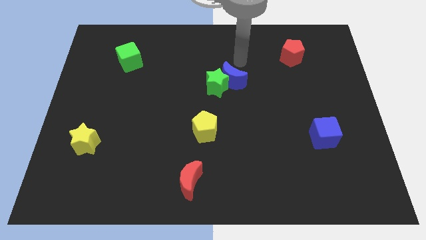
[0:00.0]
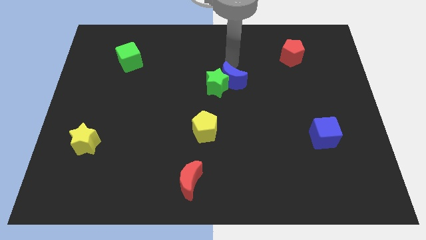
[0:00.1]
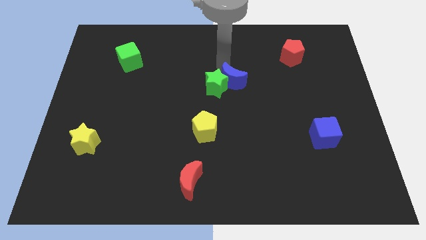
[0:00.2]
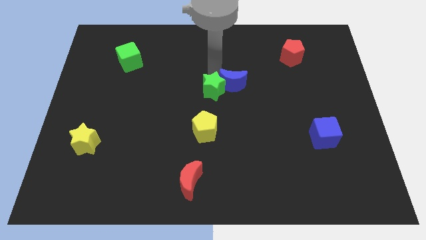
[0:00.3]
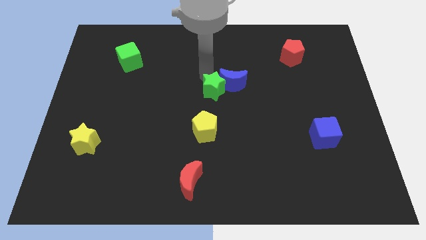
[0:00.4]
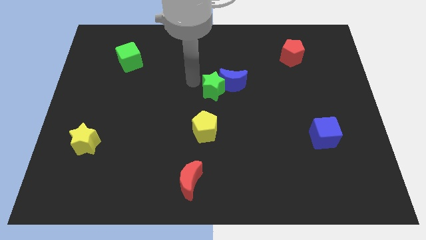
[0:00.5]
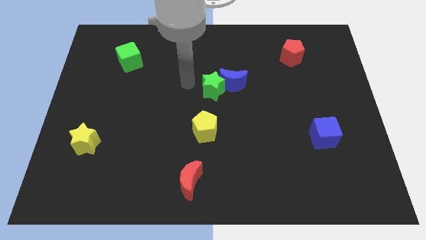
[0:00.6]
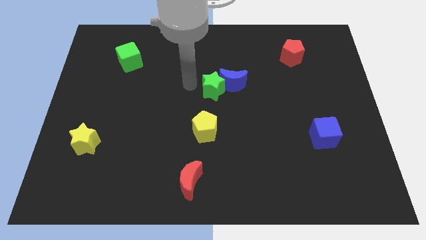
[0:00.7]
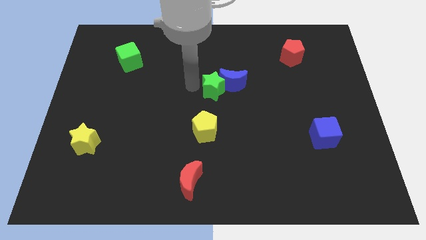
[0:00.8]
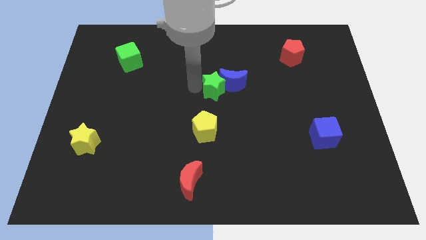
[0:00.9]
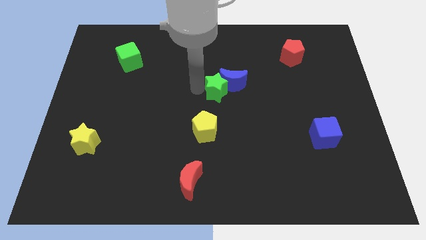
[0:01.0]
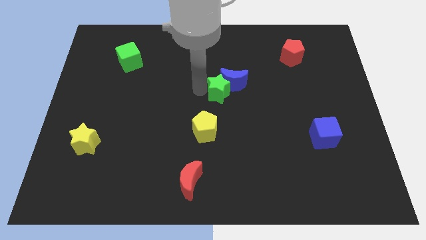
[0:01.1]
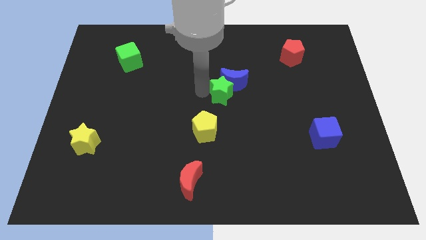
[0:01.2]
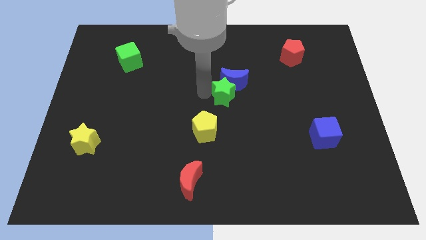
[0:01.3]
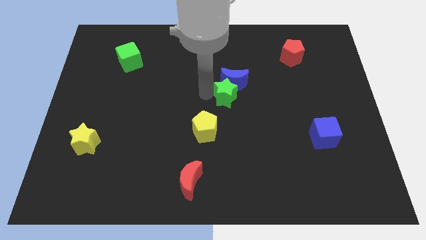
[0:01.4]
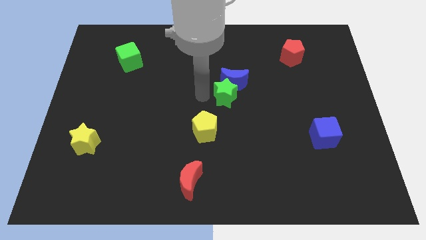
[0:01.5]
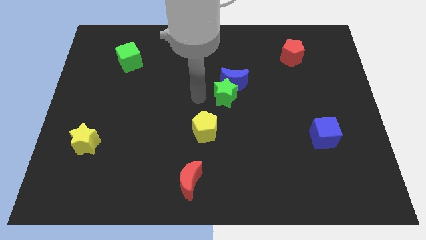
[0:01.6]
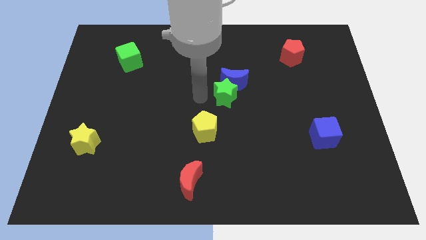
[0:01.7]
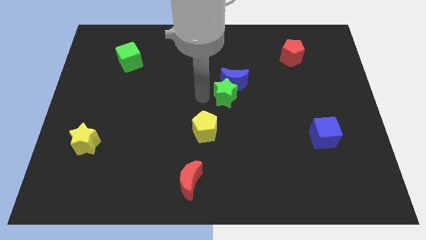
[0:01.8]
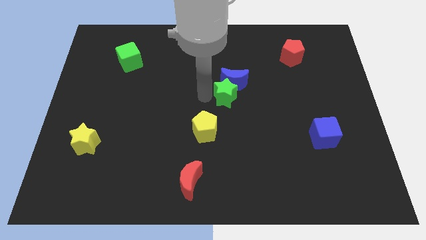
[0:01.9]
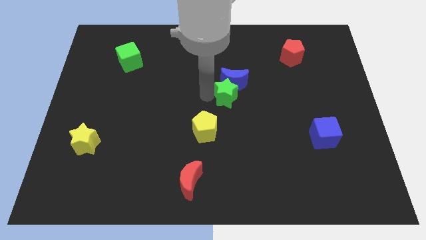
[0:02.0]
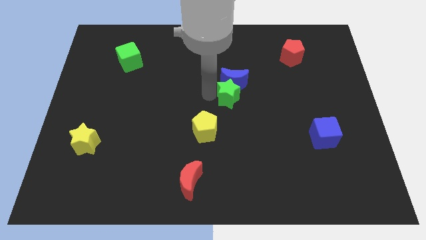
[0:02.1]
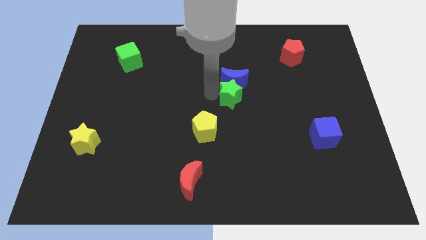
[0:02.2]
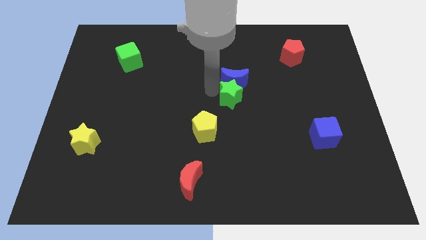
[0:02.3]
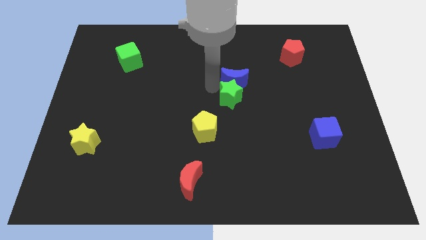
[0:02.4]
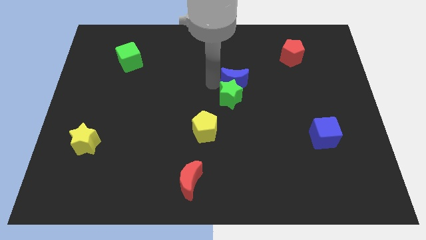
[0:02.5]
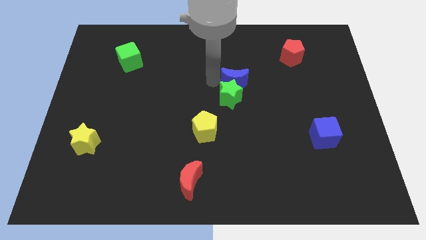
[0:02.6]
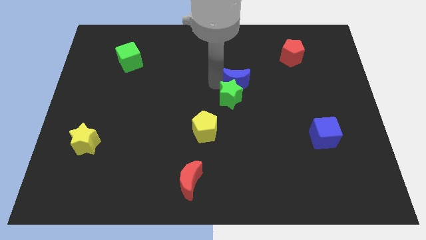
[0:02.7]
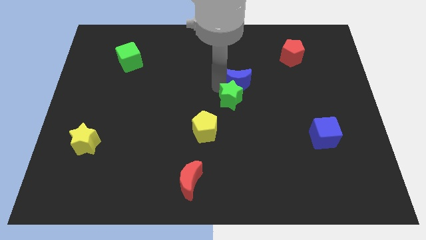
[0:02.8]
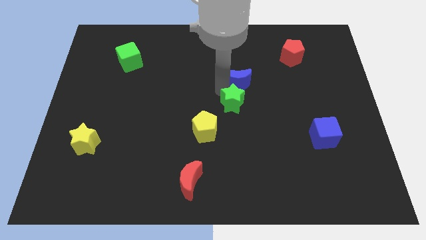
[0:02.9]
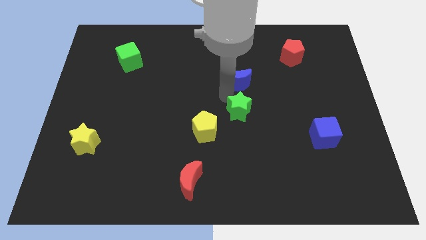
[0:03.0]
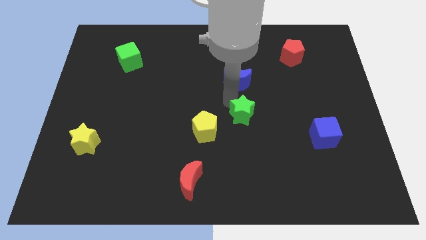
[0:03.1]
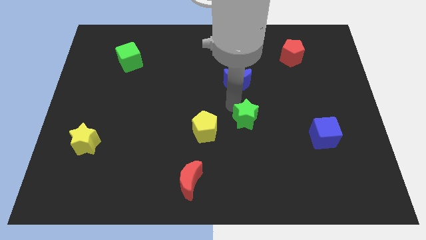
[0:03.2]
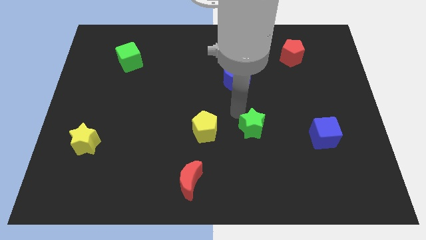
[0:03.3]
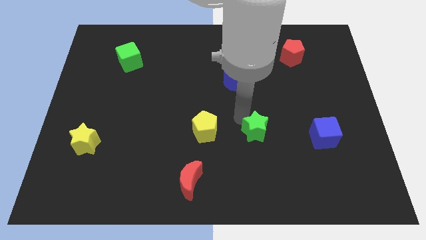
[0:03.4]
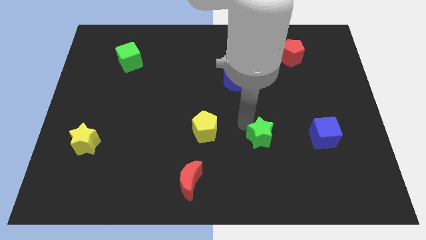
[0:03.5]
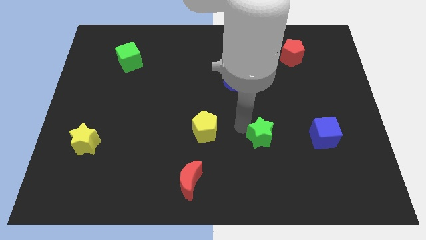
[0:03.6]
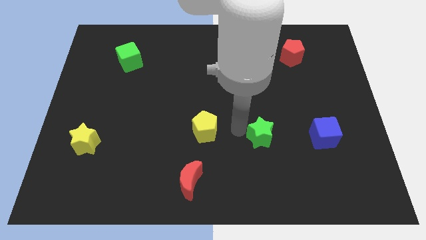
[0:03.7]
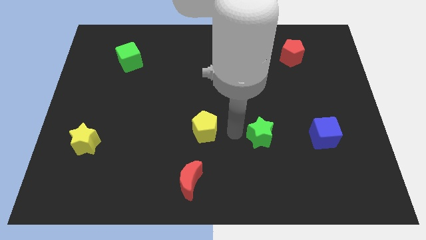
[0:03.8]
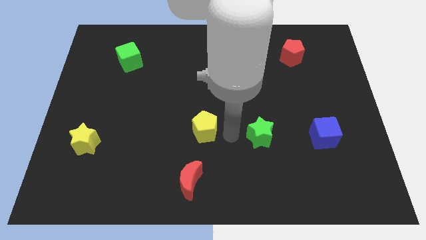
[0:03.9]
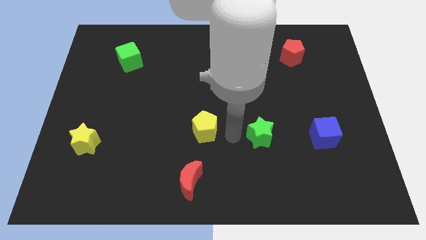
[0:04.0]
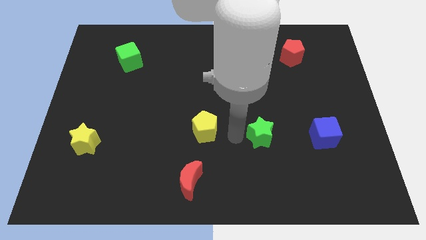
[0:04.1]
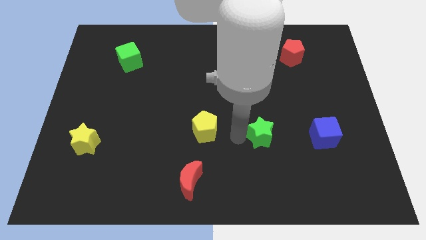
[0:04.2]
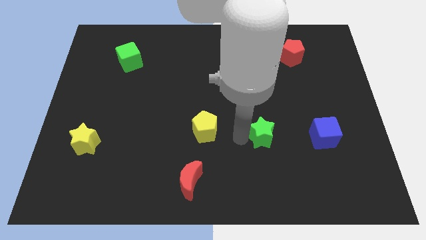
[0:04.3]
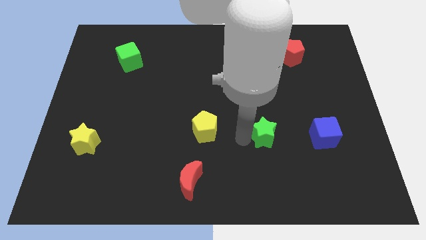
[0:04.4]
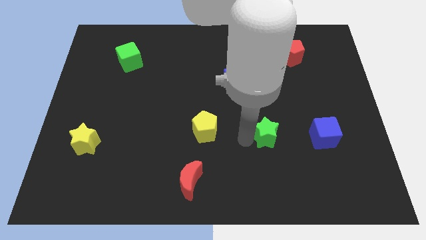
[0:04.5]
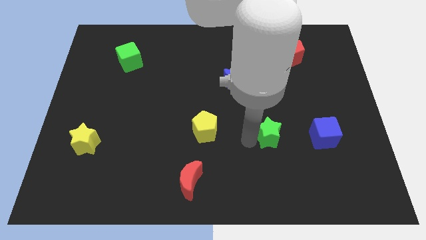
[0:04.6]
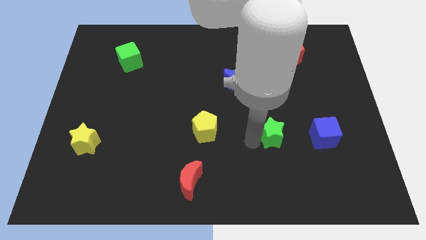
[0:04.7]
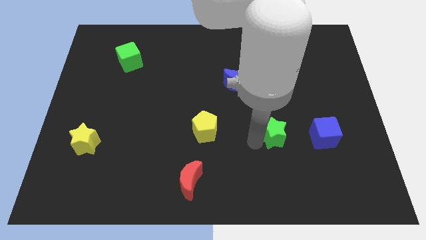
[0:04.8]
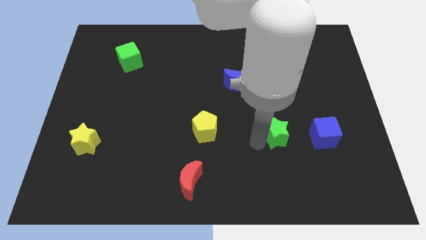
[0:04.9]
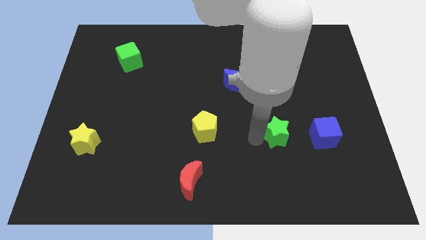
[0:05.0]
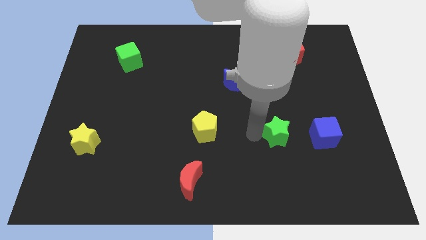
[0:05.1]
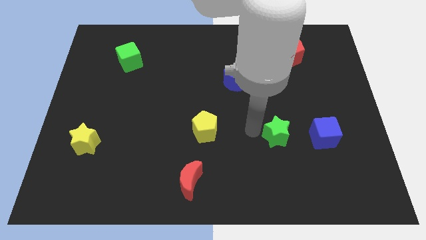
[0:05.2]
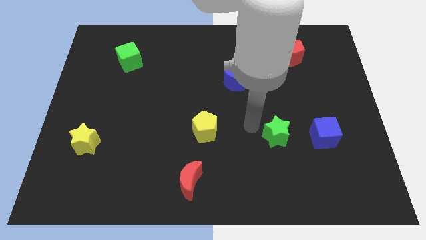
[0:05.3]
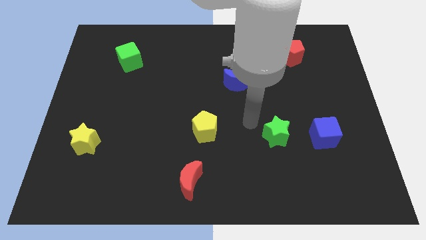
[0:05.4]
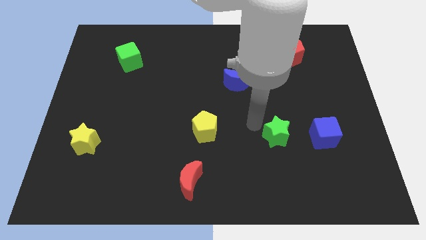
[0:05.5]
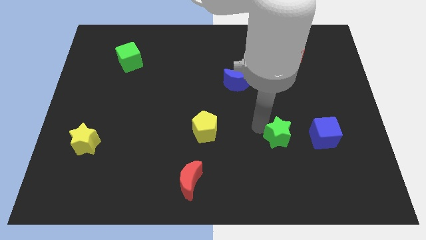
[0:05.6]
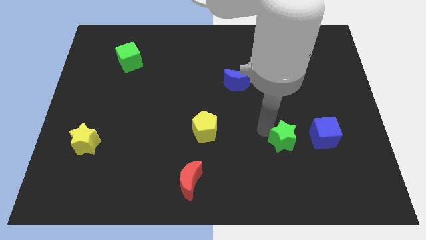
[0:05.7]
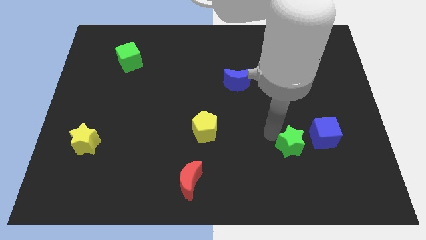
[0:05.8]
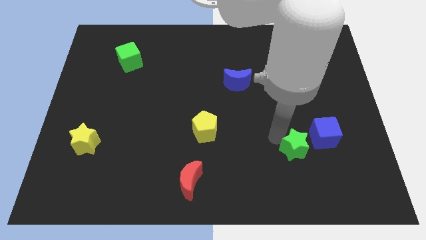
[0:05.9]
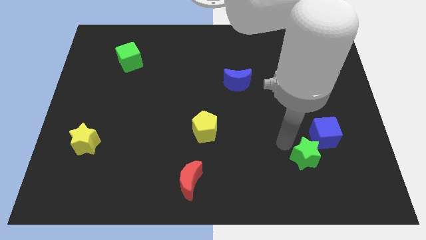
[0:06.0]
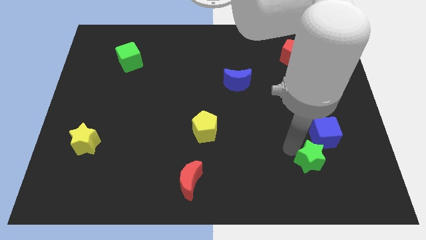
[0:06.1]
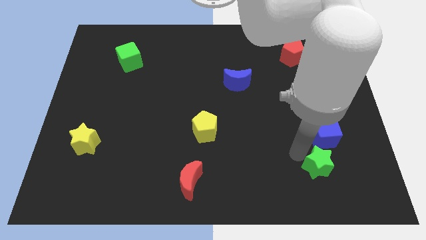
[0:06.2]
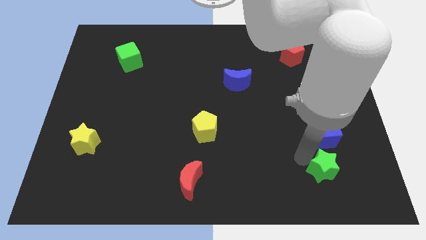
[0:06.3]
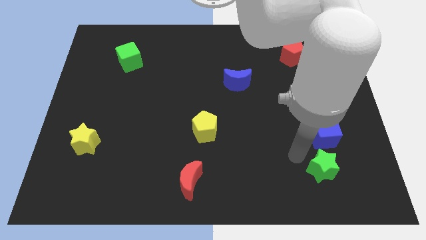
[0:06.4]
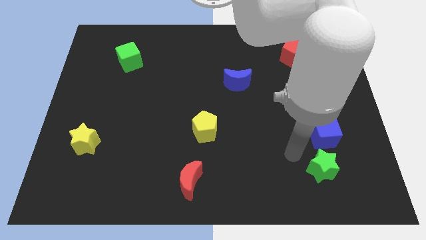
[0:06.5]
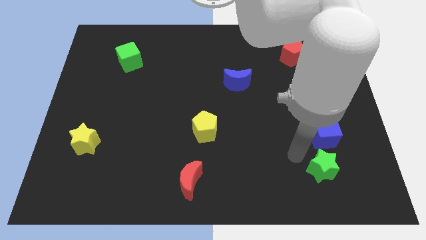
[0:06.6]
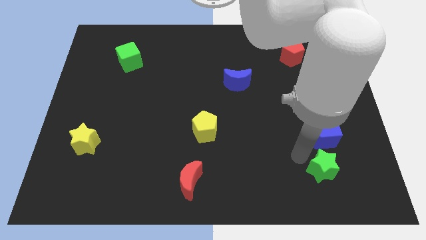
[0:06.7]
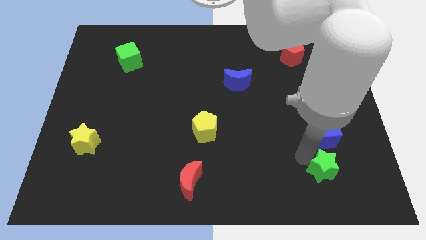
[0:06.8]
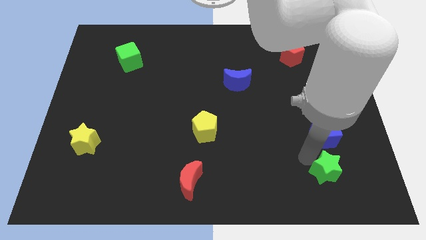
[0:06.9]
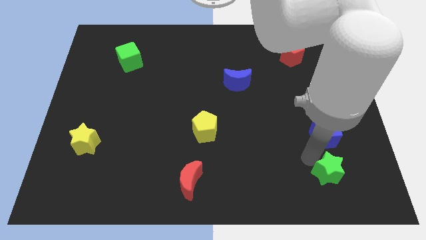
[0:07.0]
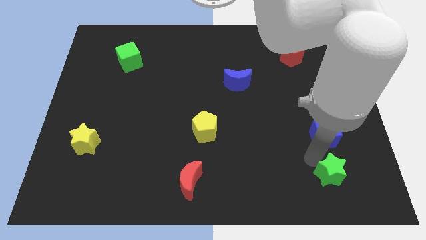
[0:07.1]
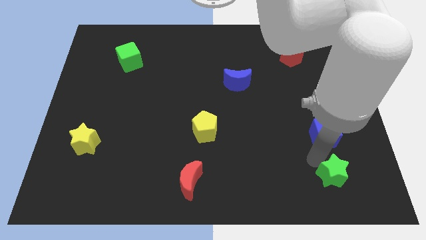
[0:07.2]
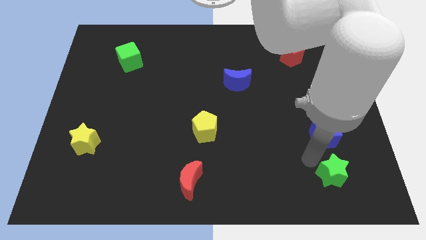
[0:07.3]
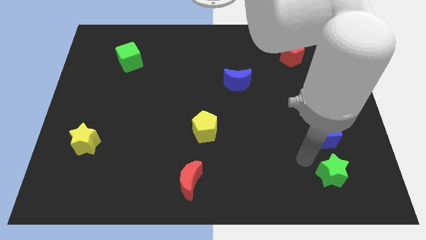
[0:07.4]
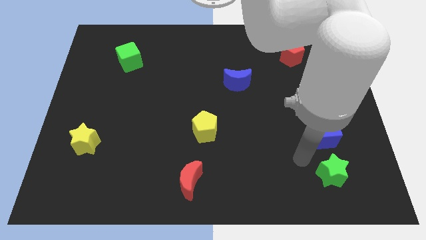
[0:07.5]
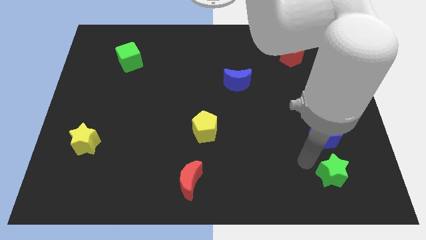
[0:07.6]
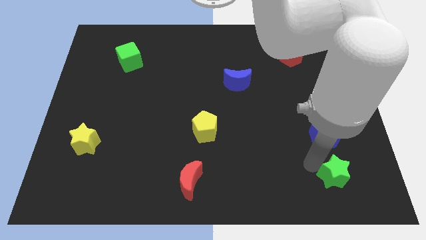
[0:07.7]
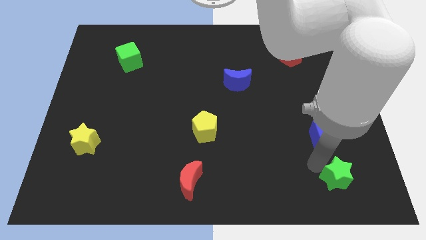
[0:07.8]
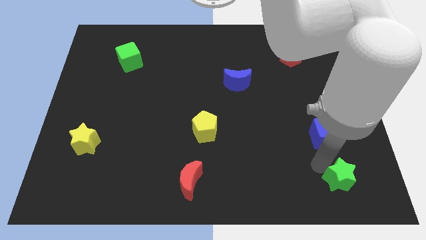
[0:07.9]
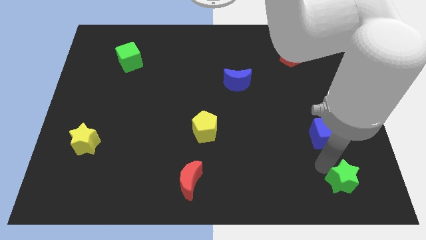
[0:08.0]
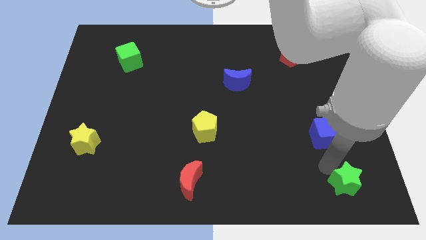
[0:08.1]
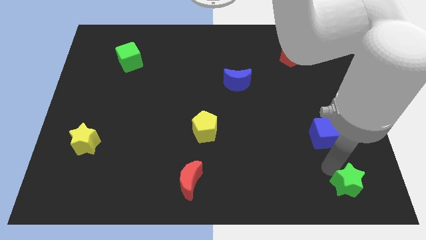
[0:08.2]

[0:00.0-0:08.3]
push the green star to the bottom right of the board
